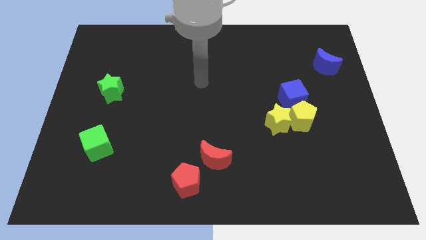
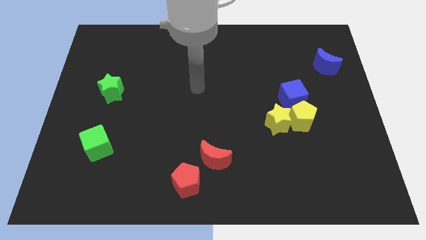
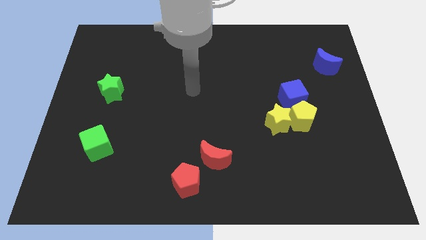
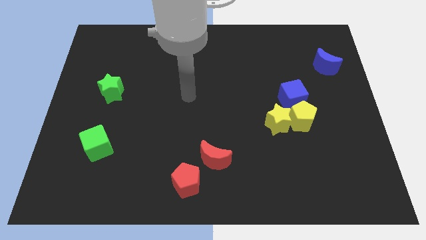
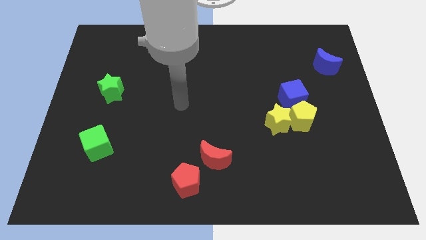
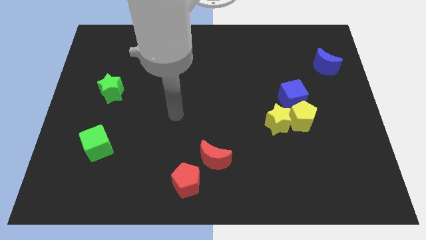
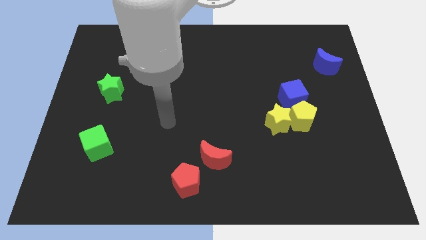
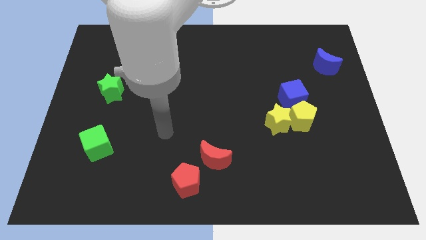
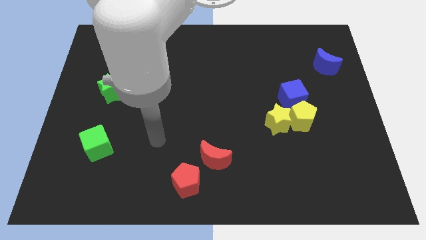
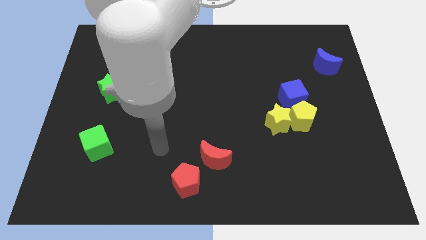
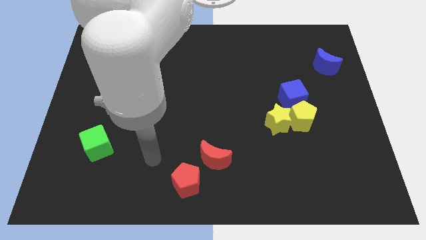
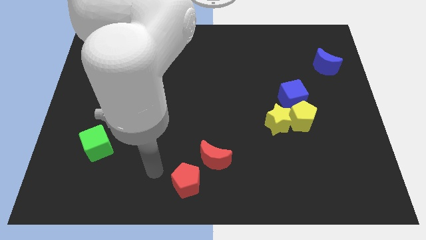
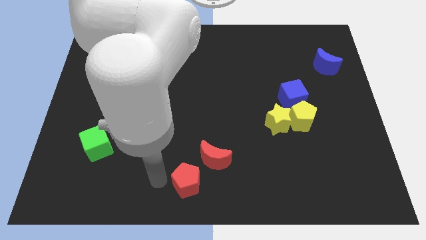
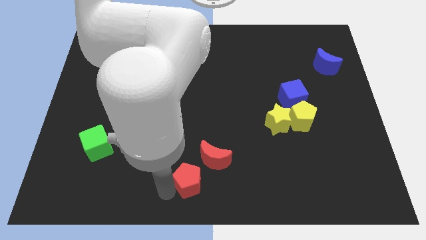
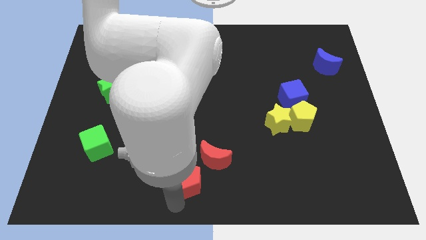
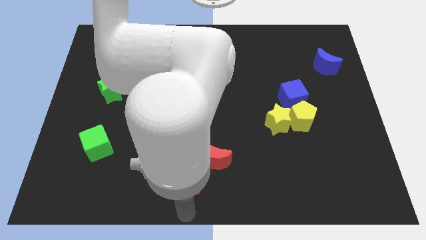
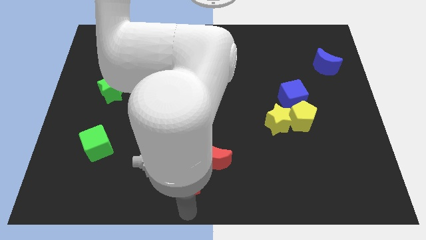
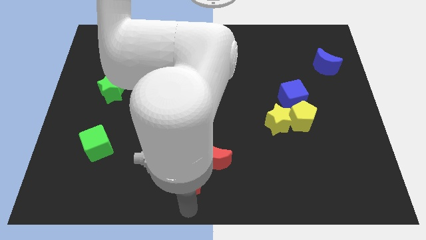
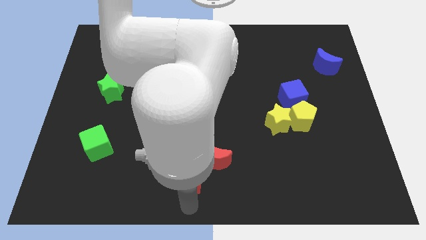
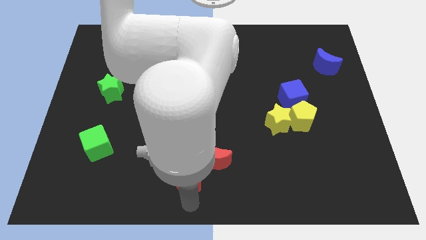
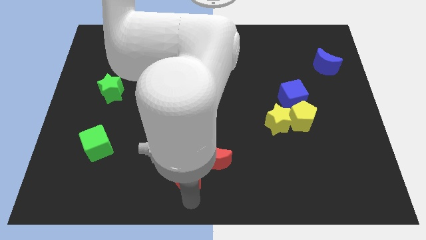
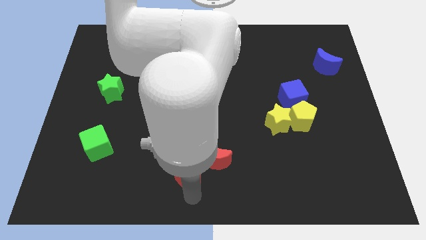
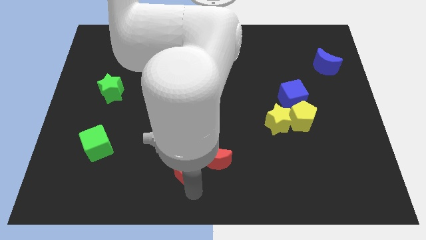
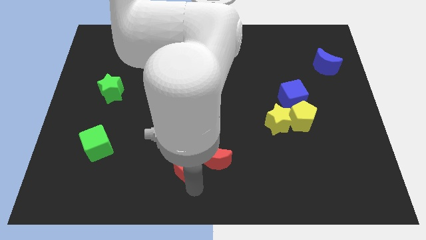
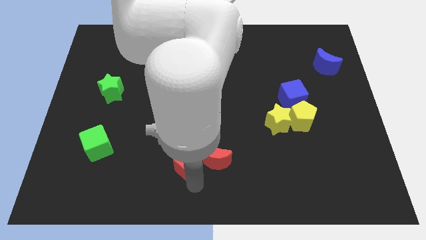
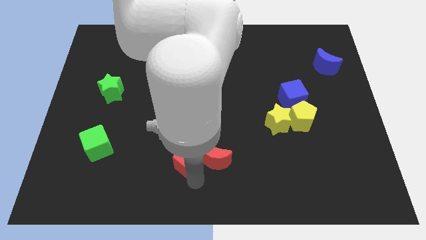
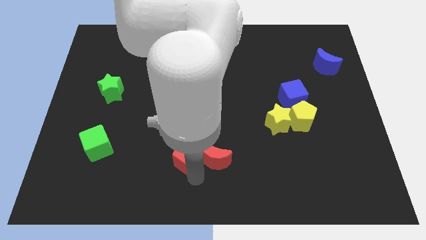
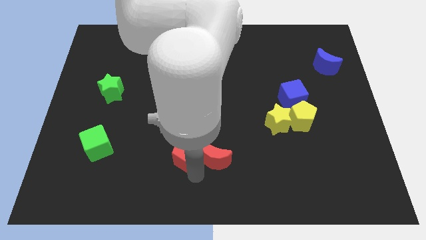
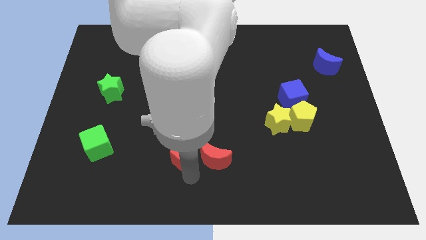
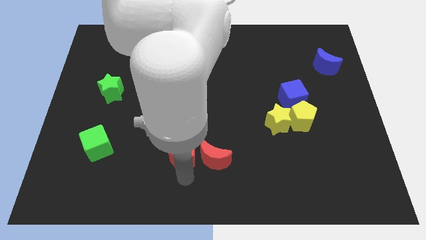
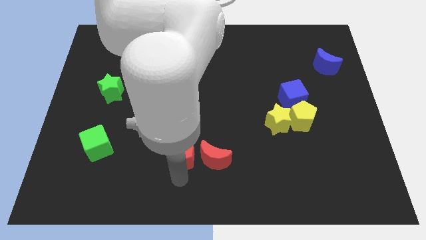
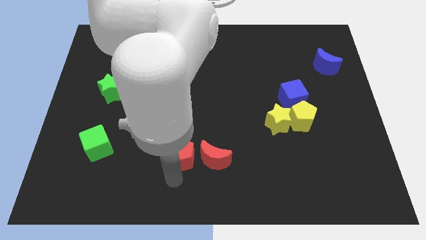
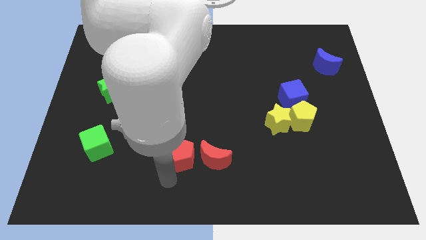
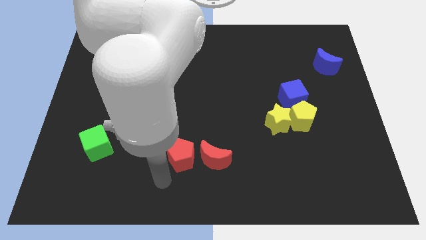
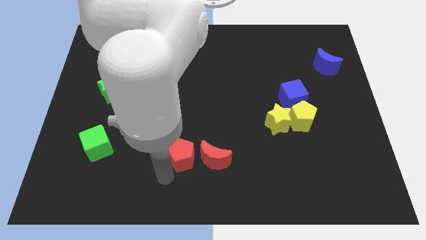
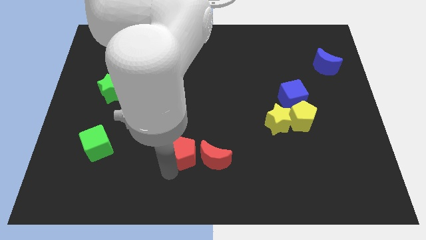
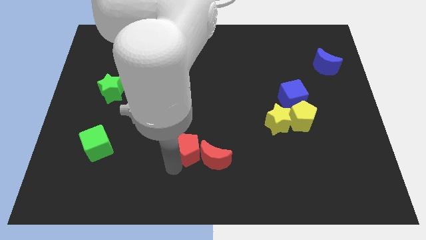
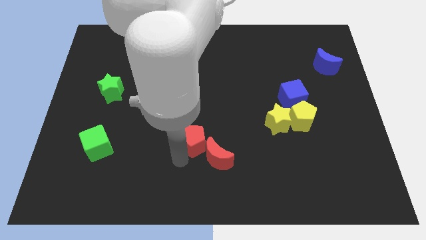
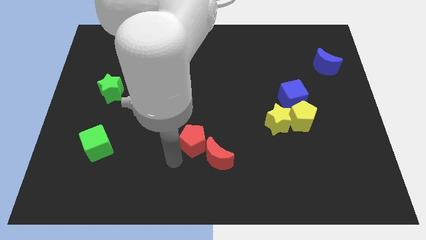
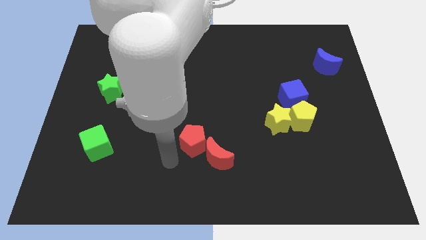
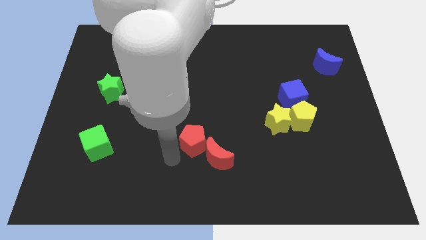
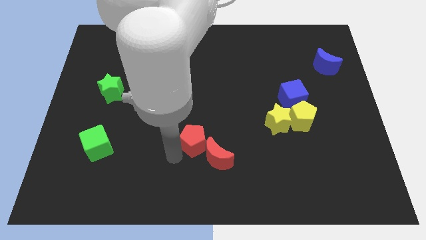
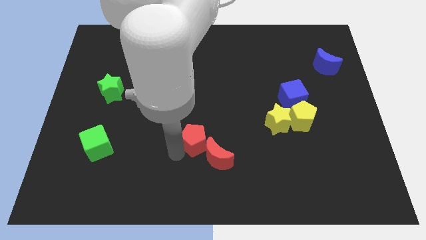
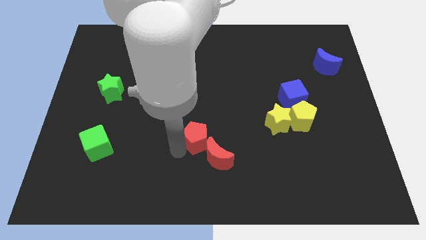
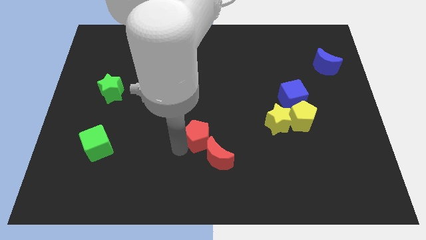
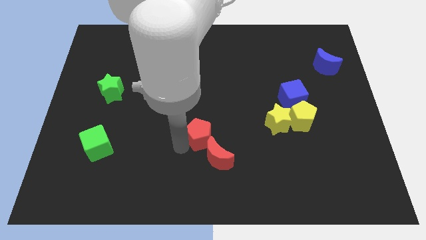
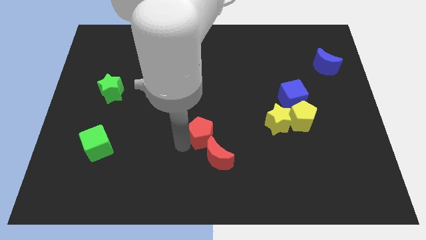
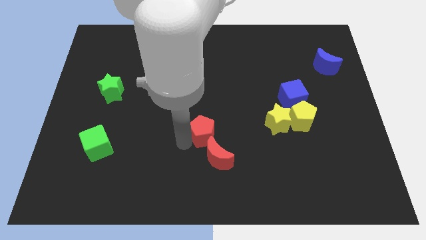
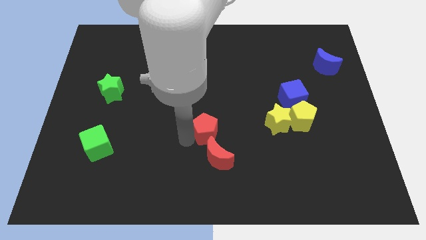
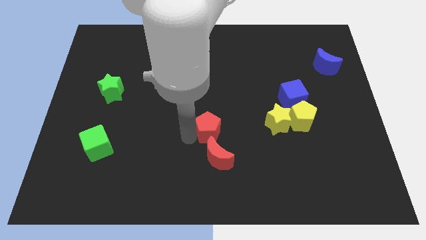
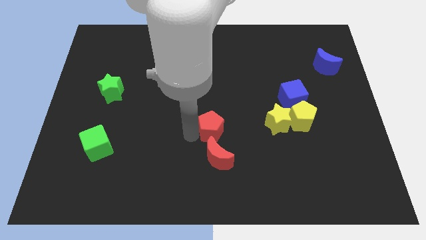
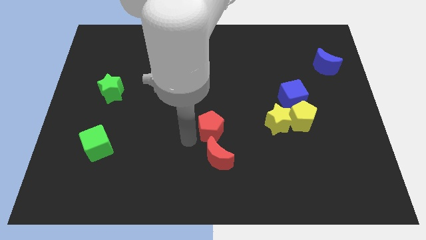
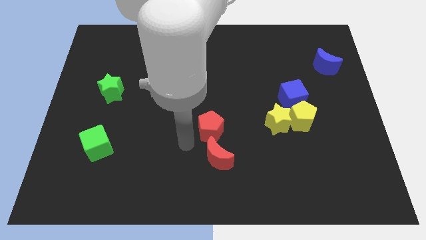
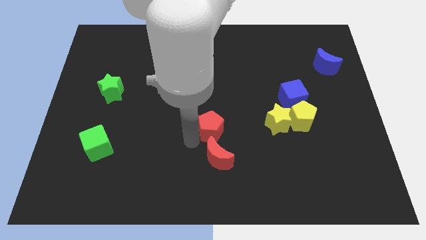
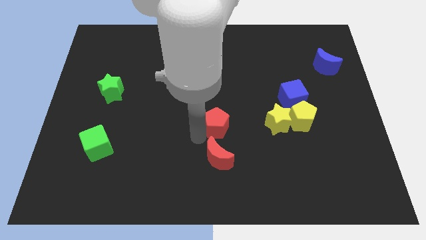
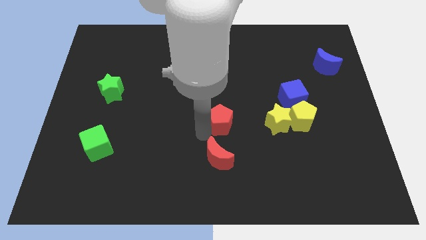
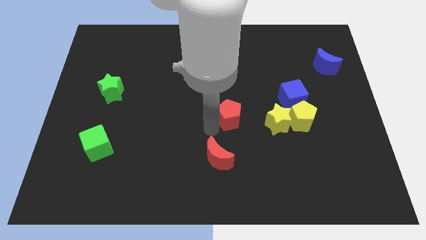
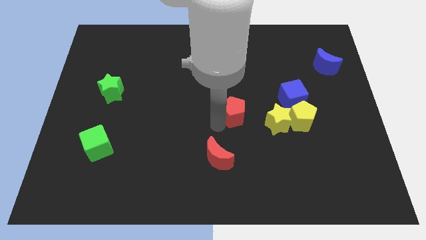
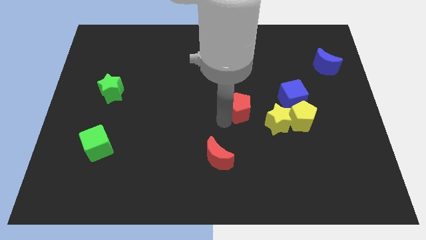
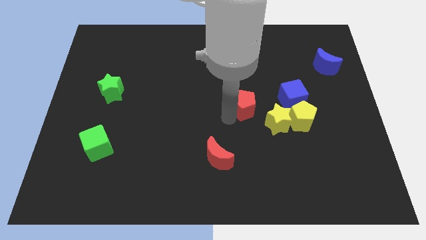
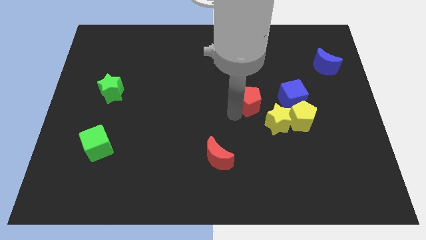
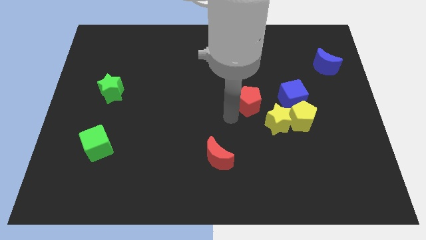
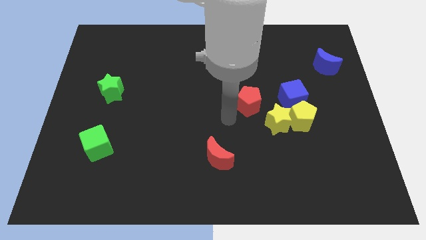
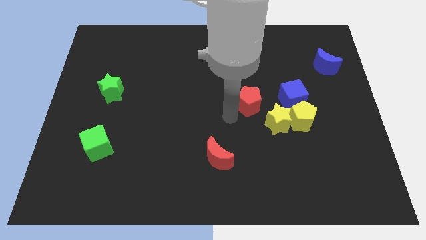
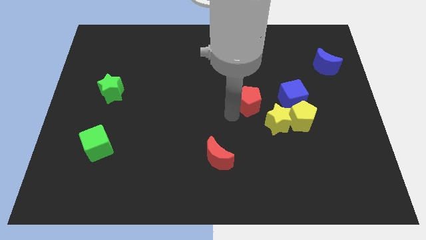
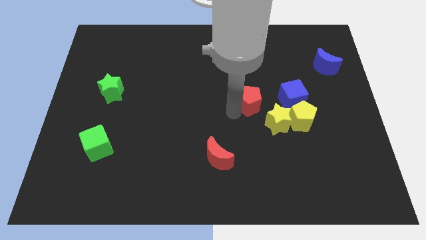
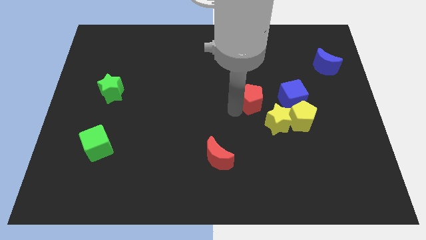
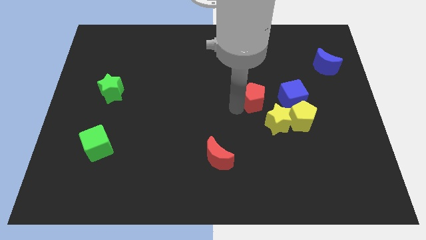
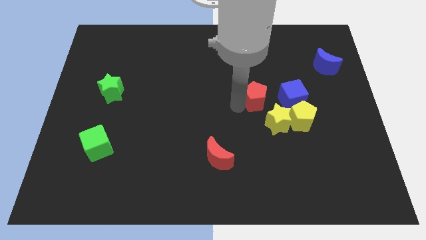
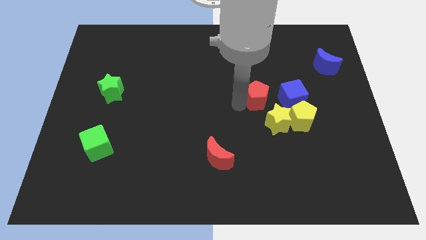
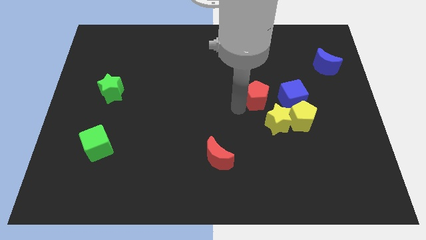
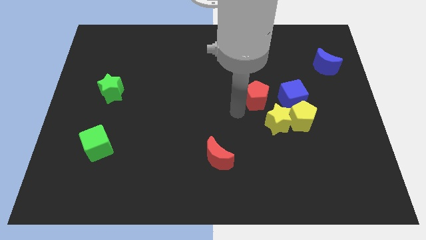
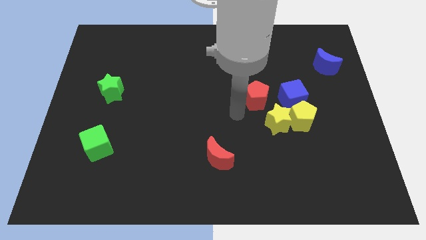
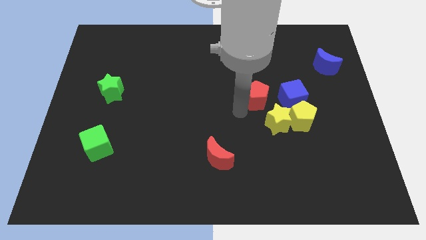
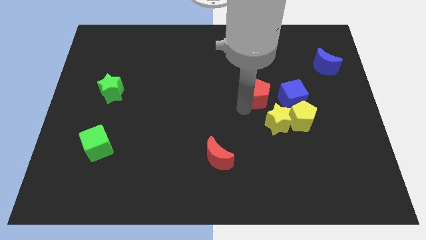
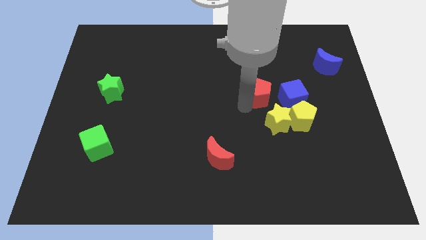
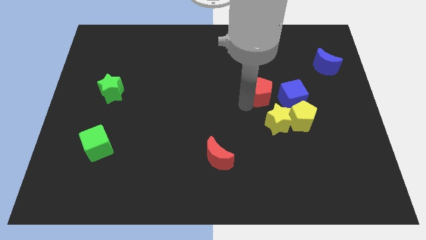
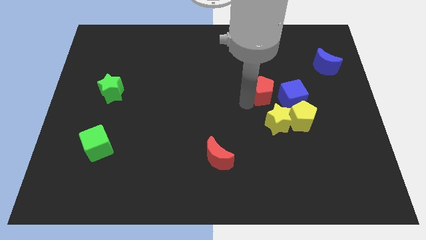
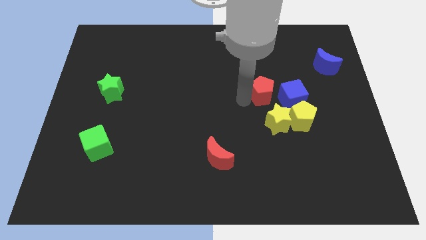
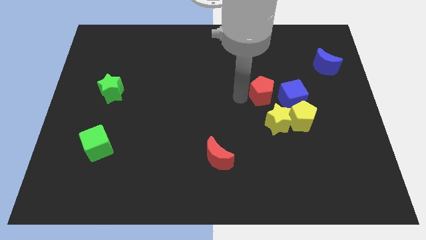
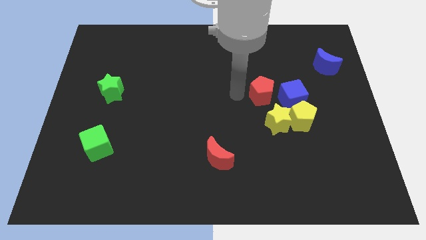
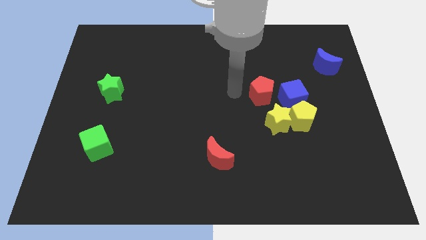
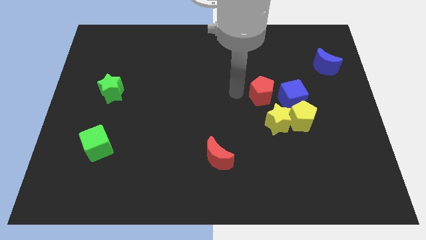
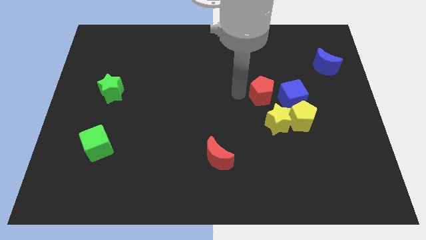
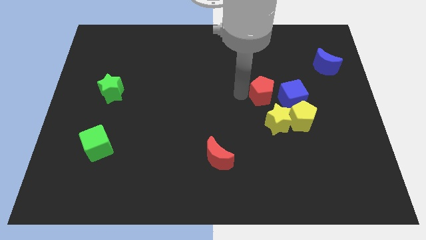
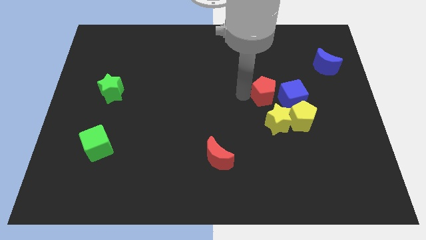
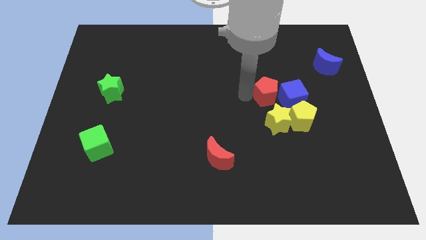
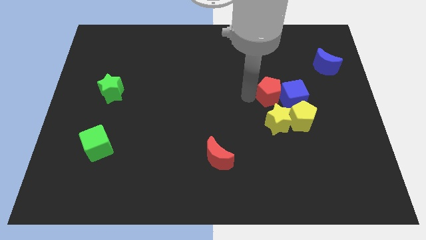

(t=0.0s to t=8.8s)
put the red pentagon towards the blue cube
